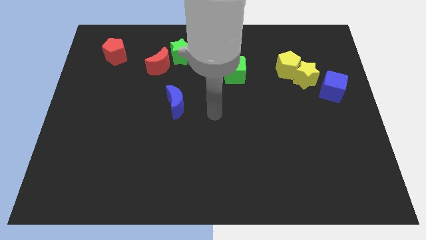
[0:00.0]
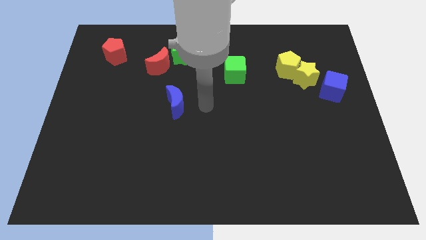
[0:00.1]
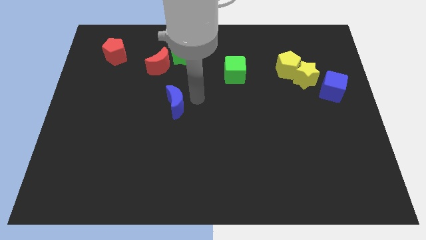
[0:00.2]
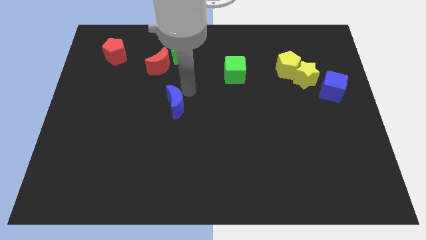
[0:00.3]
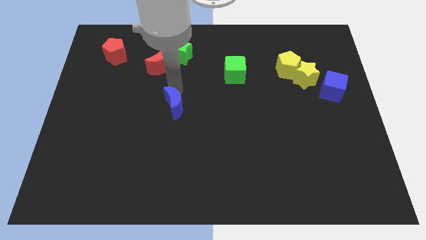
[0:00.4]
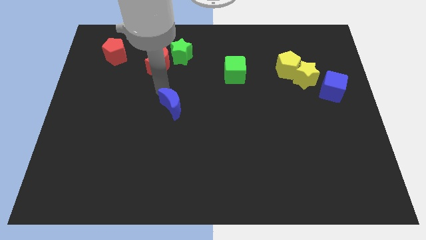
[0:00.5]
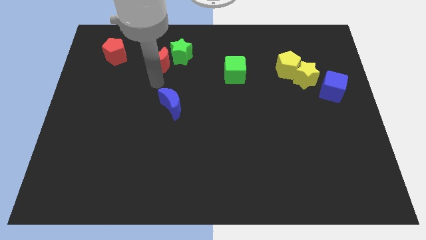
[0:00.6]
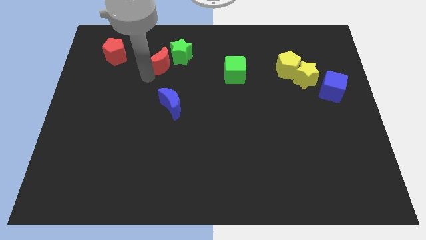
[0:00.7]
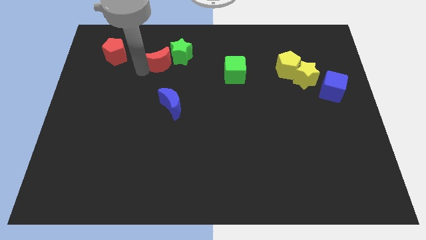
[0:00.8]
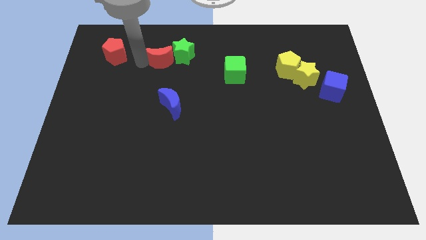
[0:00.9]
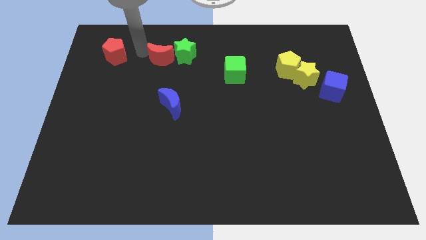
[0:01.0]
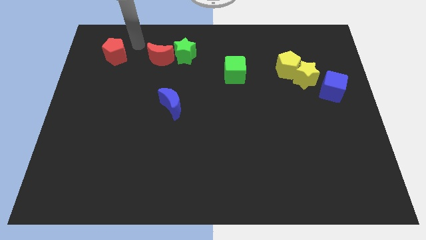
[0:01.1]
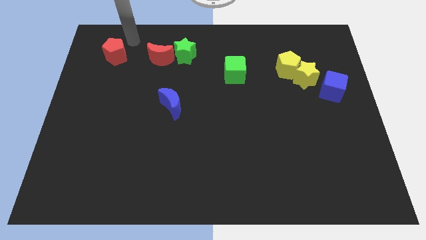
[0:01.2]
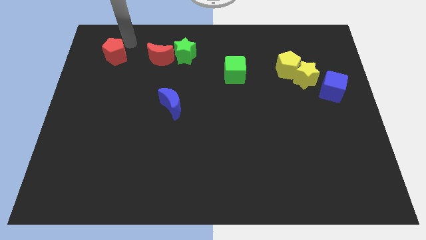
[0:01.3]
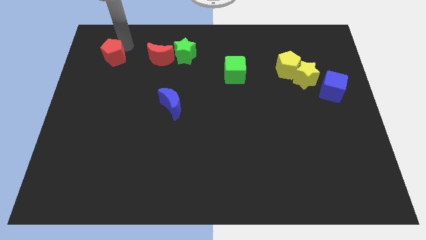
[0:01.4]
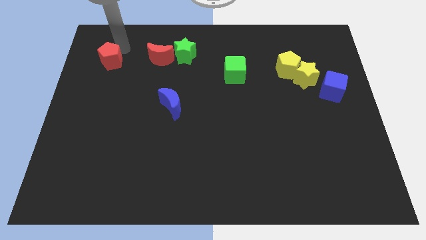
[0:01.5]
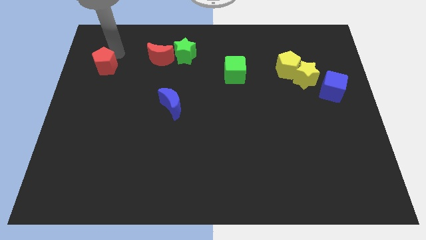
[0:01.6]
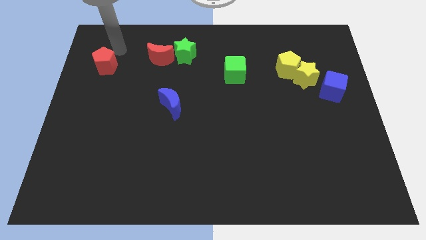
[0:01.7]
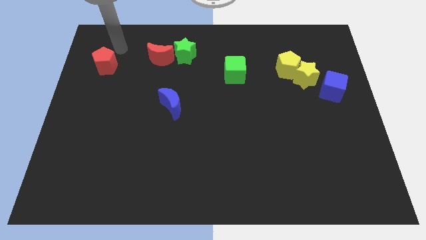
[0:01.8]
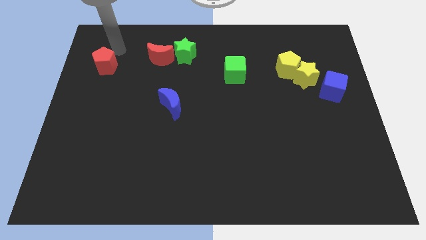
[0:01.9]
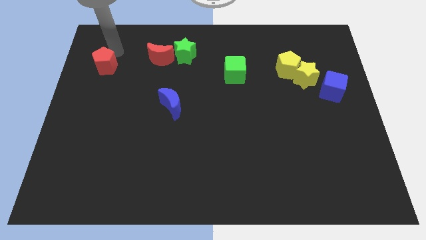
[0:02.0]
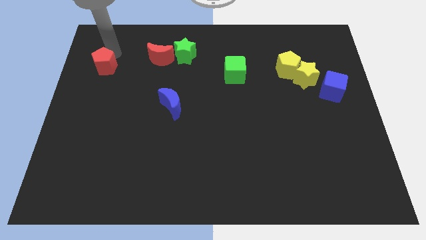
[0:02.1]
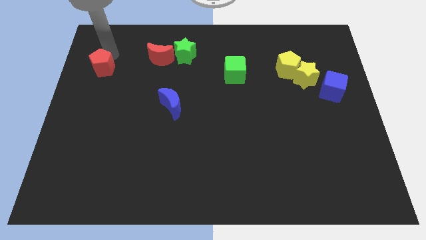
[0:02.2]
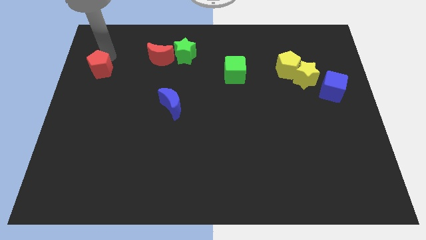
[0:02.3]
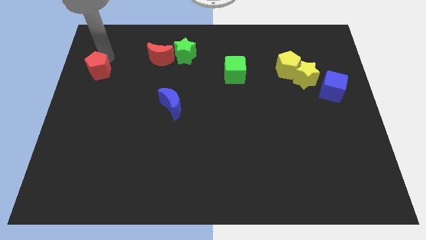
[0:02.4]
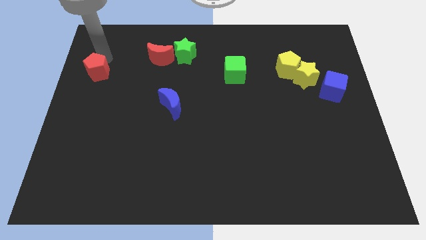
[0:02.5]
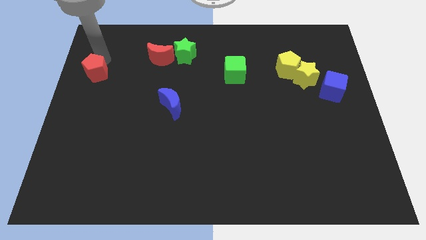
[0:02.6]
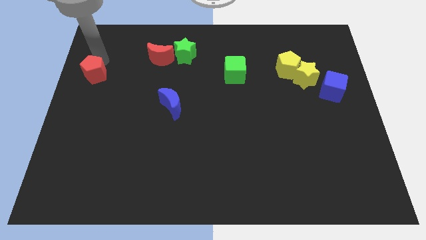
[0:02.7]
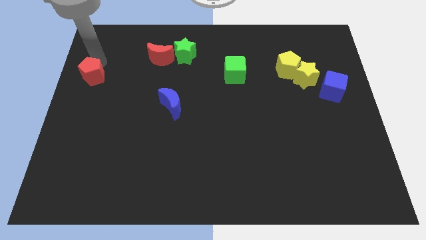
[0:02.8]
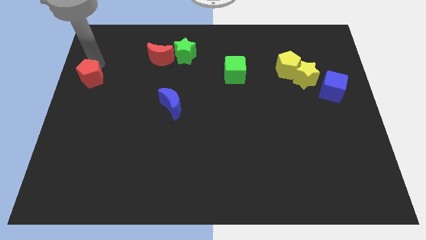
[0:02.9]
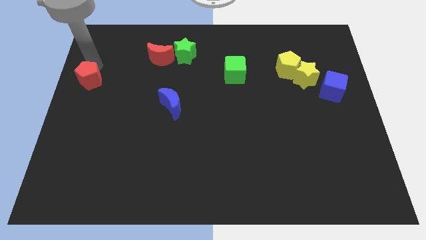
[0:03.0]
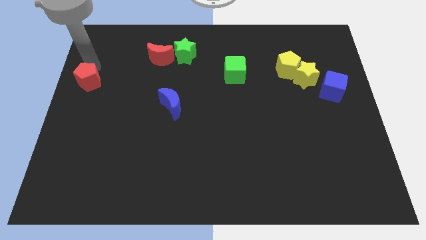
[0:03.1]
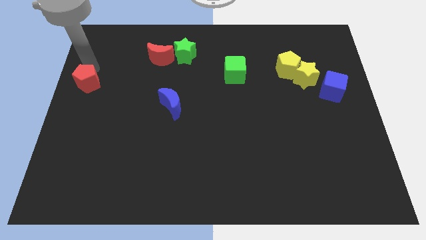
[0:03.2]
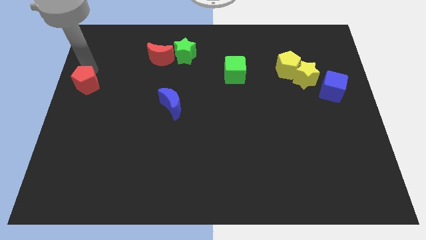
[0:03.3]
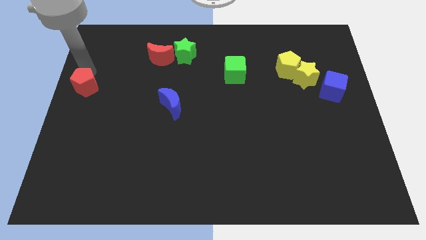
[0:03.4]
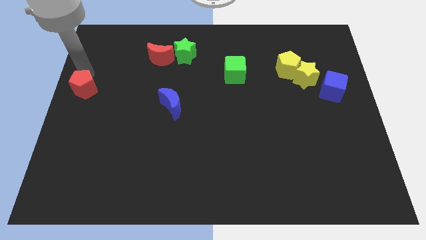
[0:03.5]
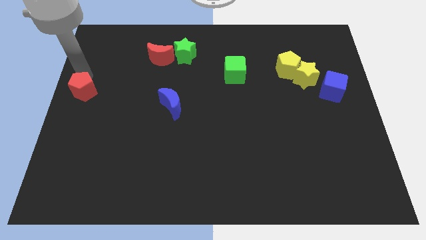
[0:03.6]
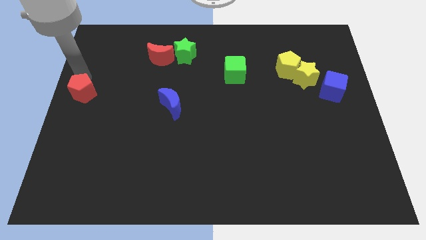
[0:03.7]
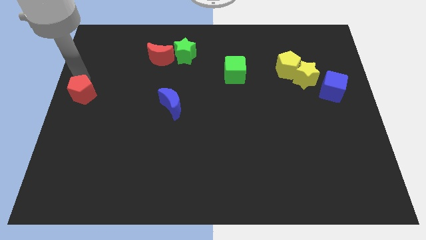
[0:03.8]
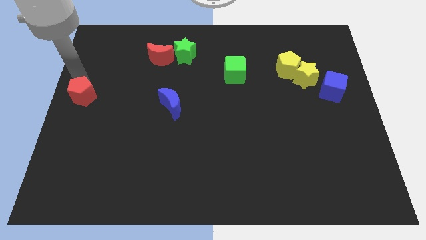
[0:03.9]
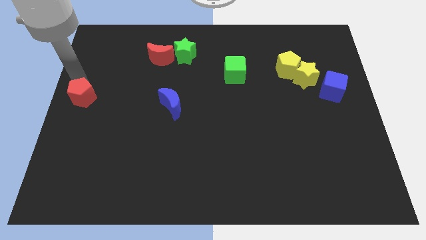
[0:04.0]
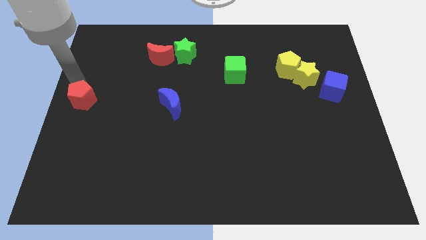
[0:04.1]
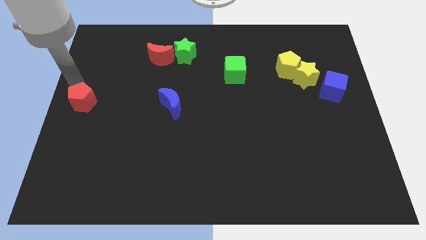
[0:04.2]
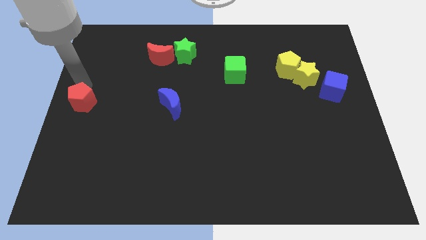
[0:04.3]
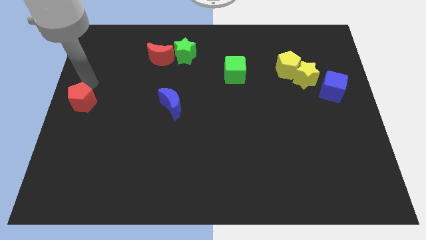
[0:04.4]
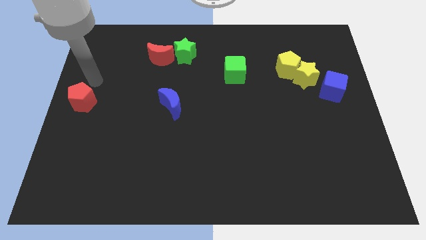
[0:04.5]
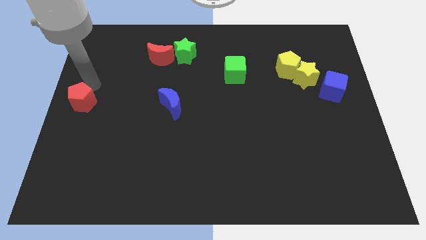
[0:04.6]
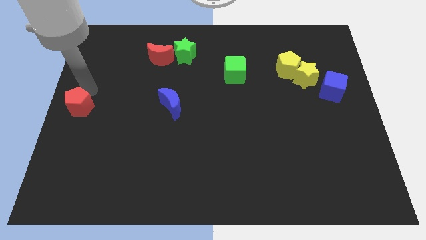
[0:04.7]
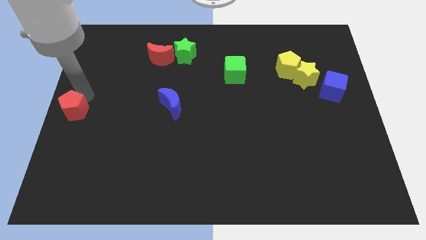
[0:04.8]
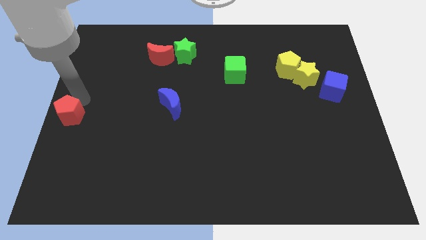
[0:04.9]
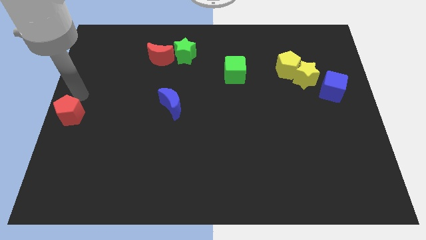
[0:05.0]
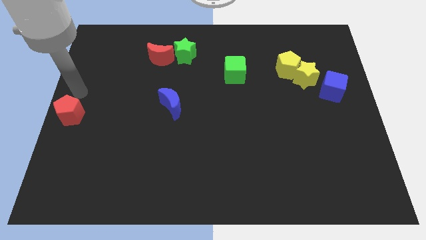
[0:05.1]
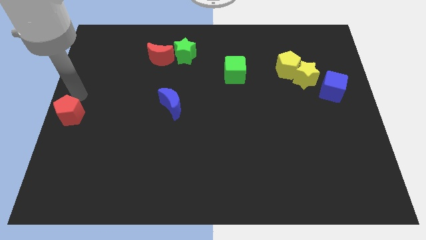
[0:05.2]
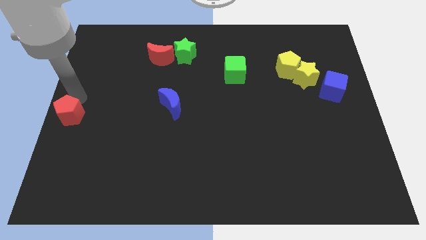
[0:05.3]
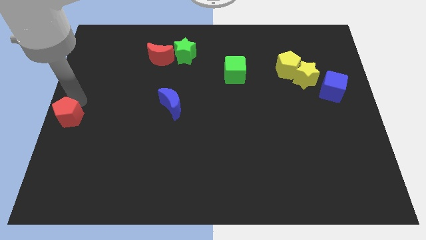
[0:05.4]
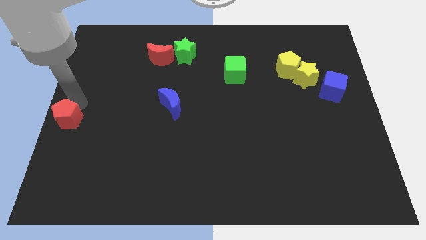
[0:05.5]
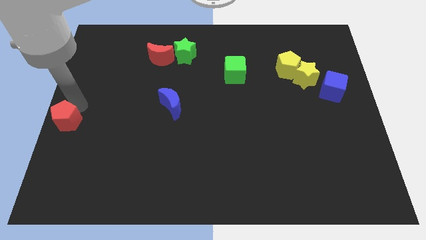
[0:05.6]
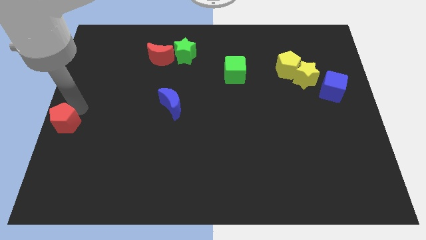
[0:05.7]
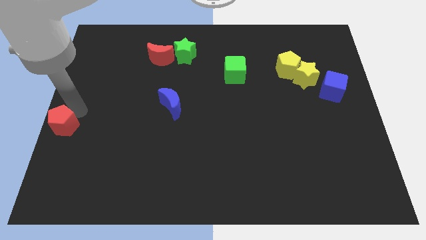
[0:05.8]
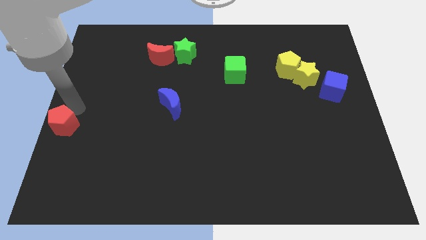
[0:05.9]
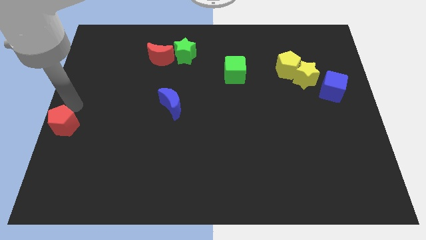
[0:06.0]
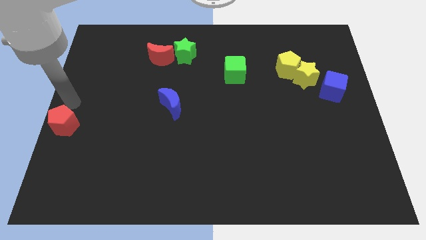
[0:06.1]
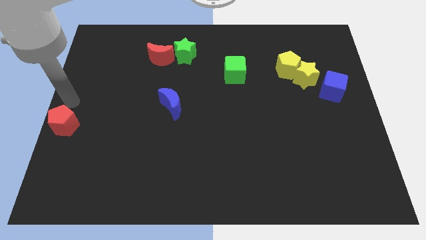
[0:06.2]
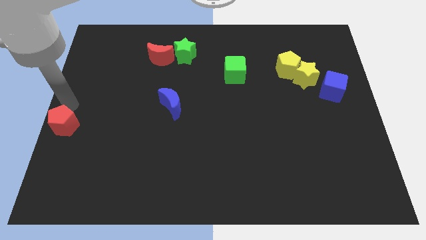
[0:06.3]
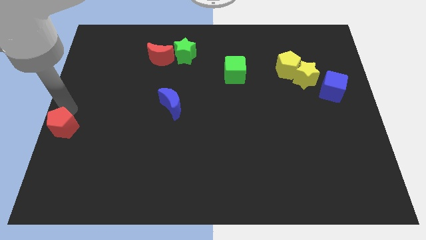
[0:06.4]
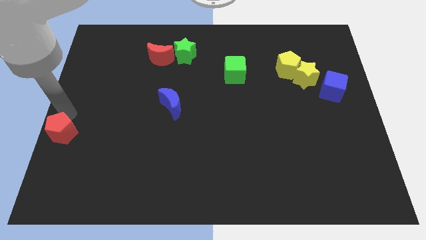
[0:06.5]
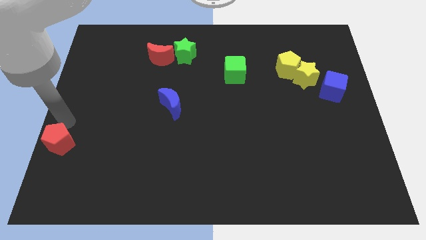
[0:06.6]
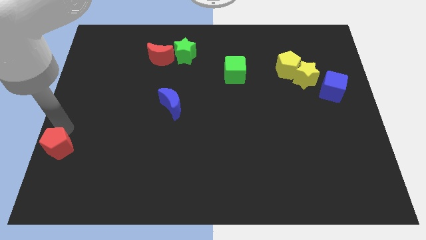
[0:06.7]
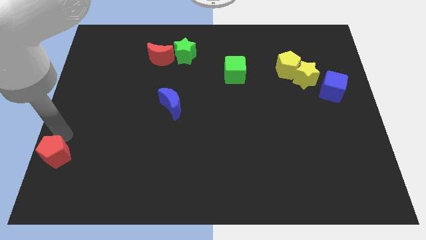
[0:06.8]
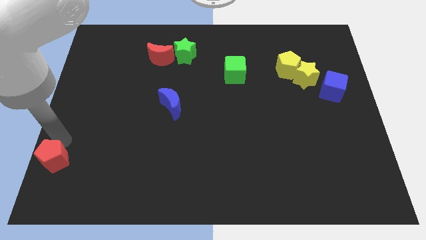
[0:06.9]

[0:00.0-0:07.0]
push the red pentagon to the bottom left of the board

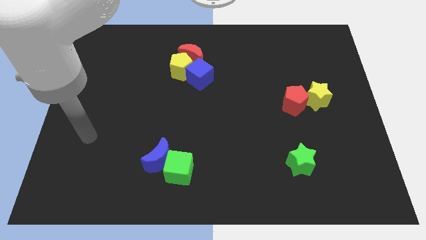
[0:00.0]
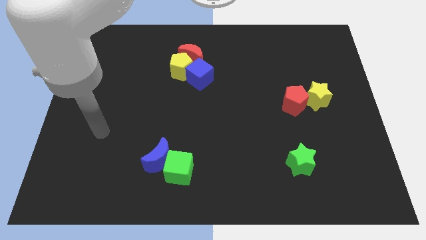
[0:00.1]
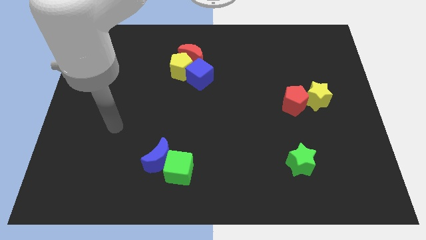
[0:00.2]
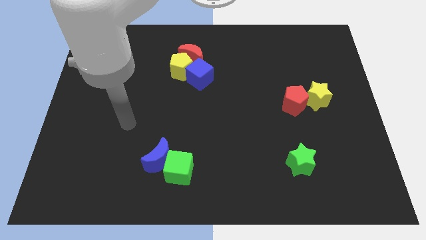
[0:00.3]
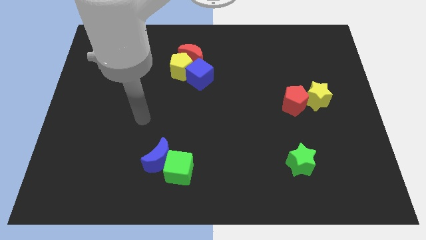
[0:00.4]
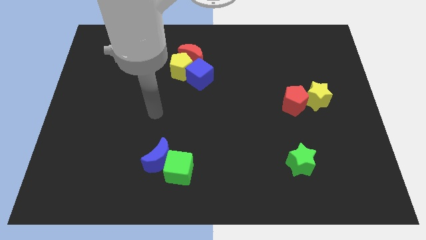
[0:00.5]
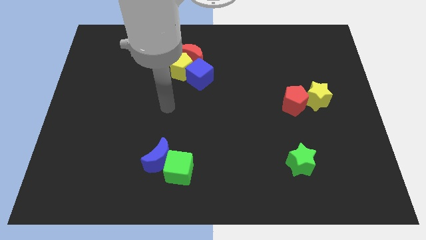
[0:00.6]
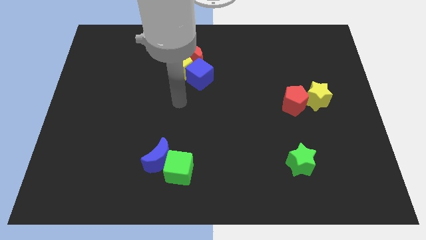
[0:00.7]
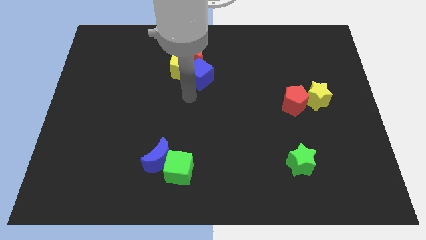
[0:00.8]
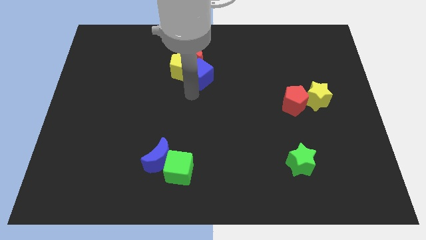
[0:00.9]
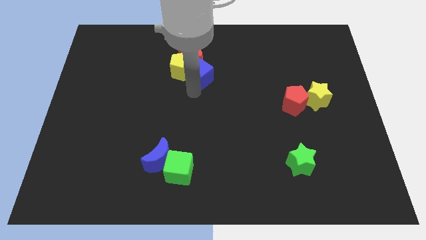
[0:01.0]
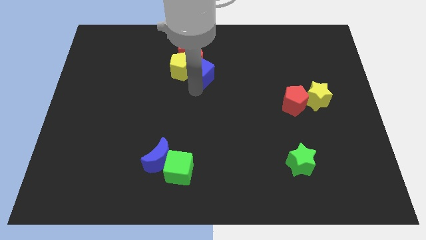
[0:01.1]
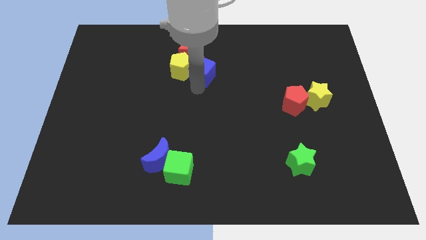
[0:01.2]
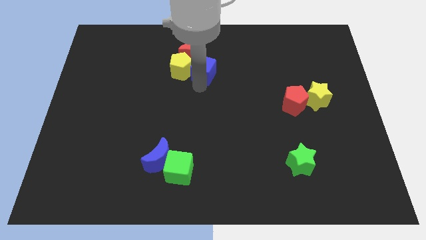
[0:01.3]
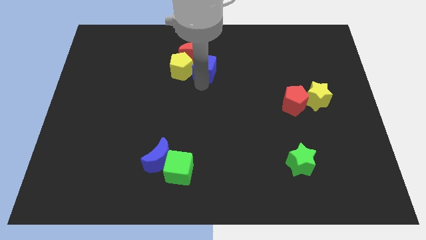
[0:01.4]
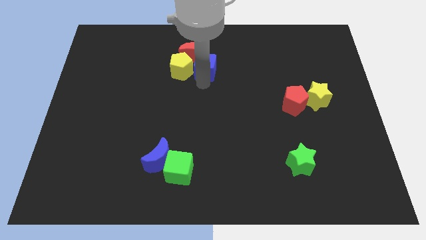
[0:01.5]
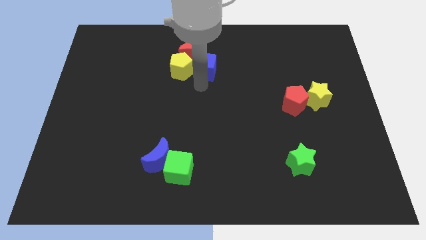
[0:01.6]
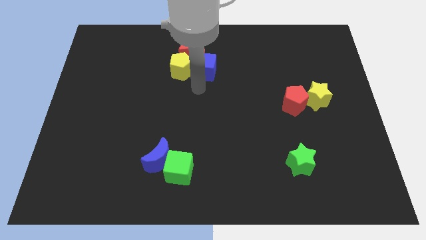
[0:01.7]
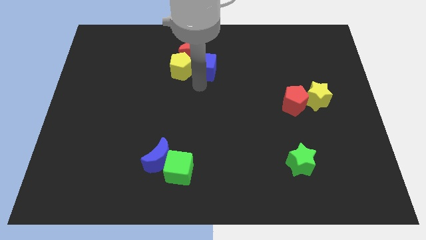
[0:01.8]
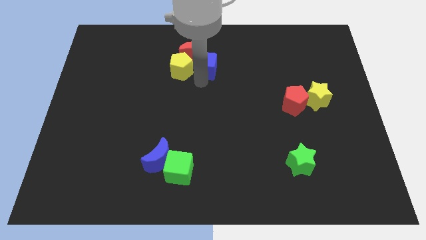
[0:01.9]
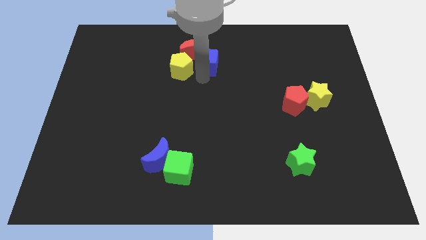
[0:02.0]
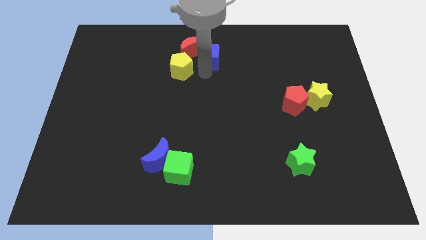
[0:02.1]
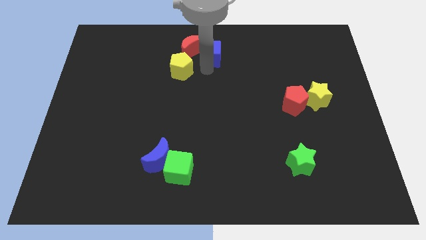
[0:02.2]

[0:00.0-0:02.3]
move the blue cube to the top
